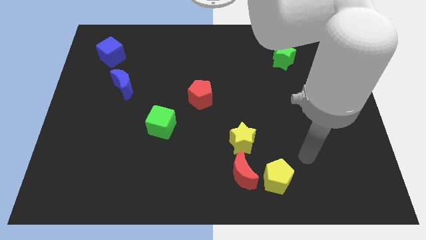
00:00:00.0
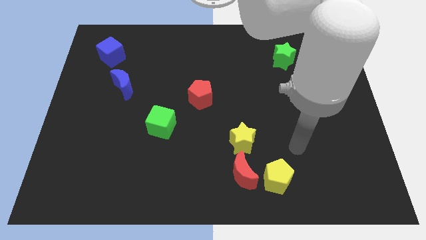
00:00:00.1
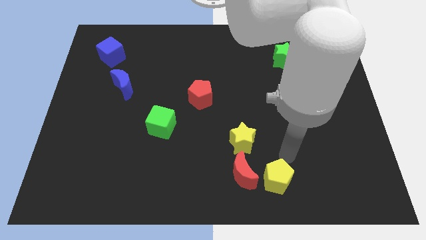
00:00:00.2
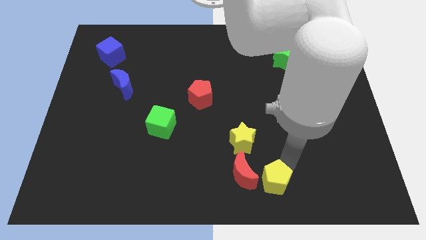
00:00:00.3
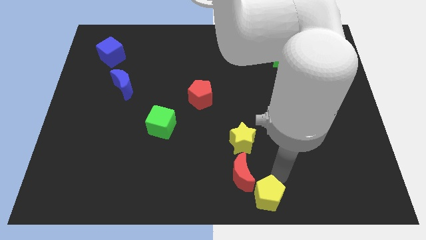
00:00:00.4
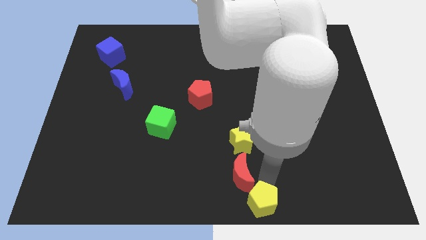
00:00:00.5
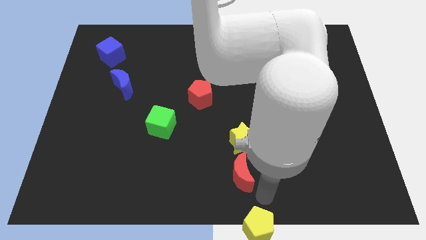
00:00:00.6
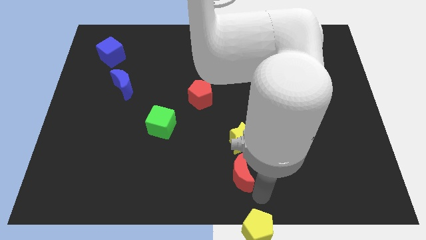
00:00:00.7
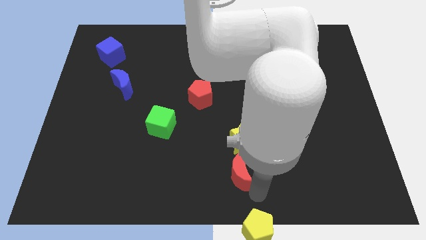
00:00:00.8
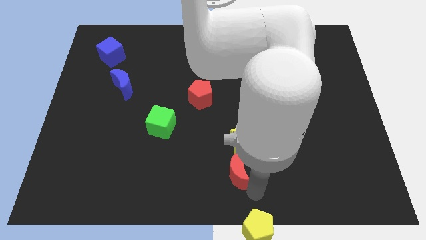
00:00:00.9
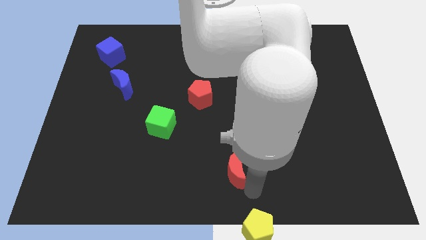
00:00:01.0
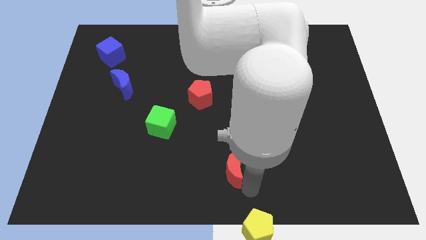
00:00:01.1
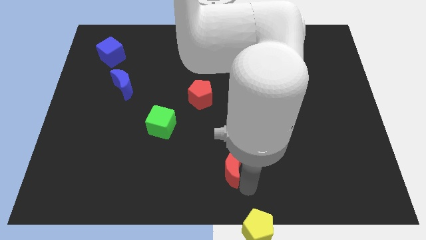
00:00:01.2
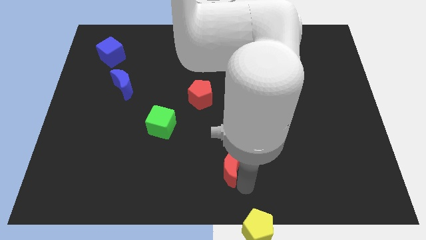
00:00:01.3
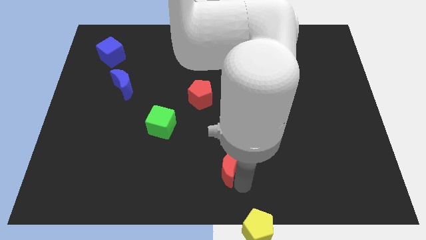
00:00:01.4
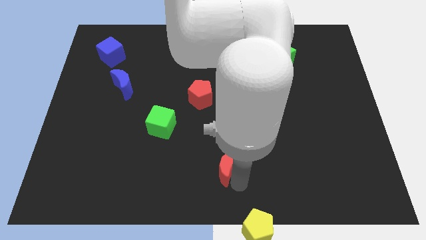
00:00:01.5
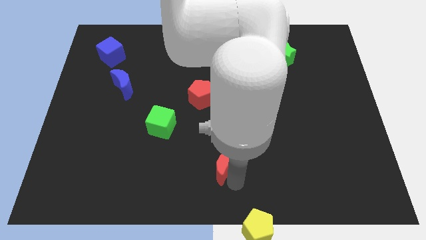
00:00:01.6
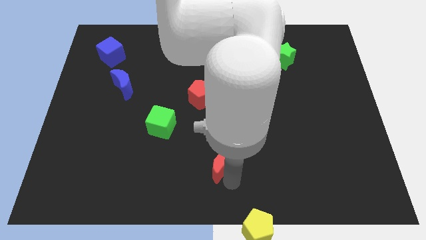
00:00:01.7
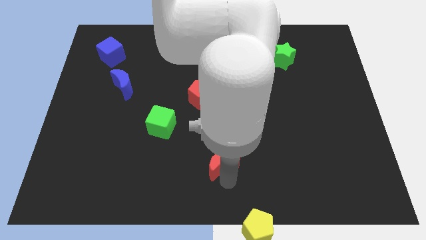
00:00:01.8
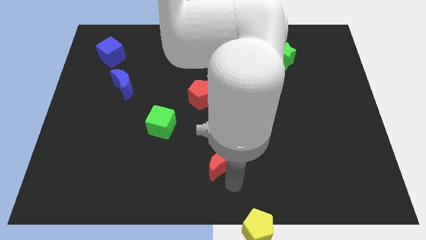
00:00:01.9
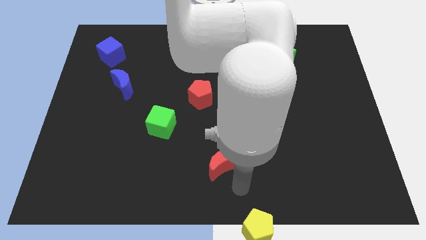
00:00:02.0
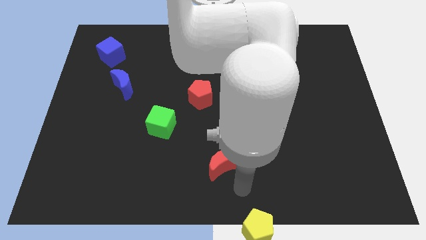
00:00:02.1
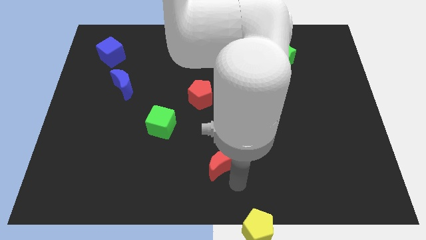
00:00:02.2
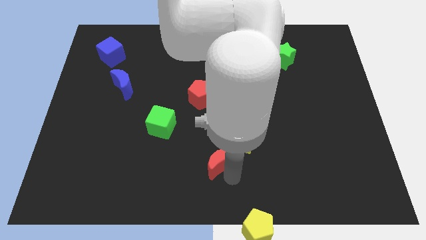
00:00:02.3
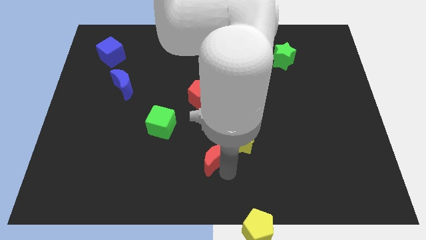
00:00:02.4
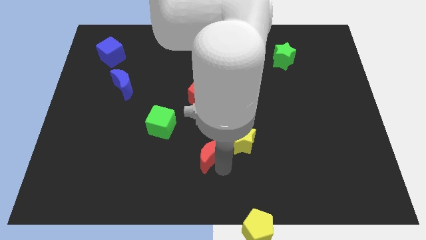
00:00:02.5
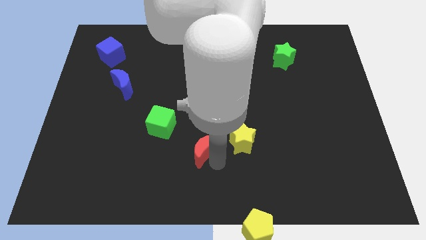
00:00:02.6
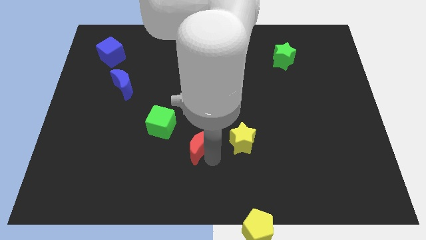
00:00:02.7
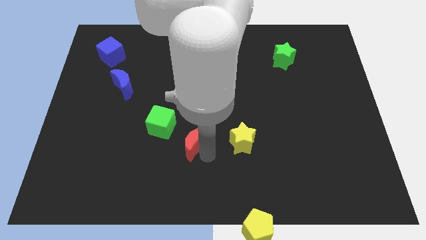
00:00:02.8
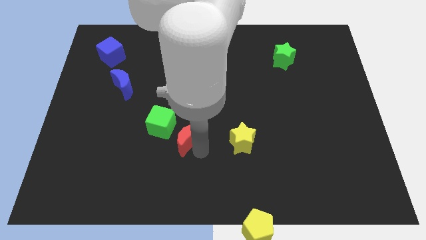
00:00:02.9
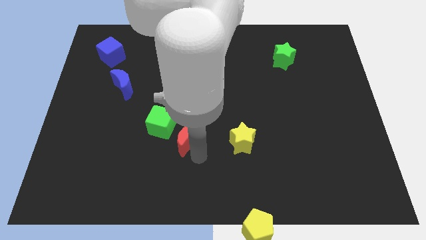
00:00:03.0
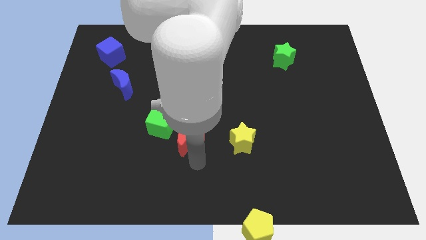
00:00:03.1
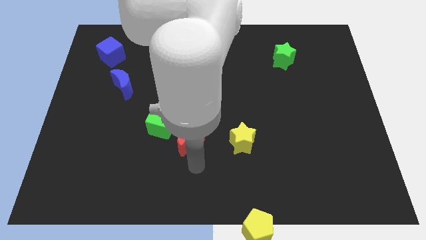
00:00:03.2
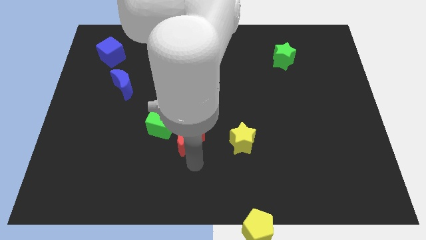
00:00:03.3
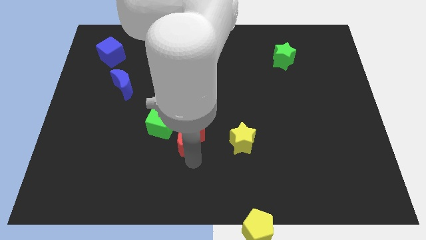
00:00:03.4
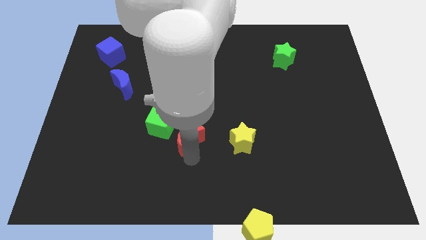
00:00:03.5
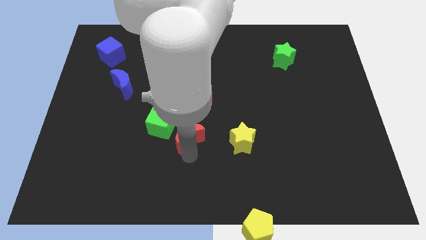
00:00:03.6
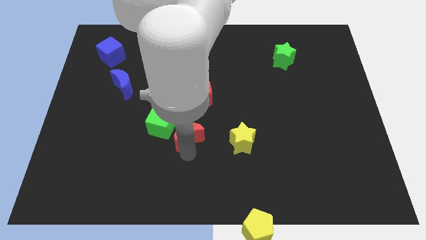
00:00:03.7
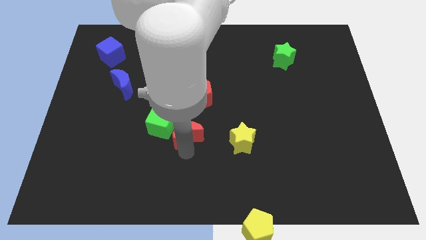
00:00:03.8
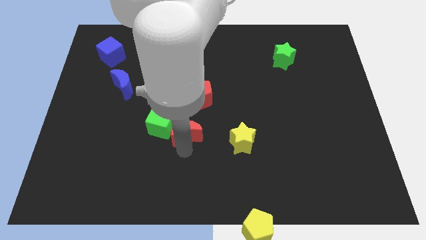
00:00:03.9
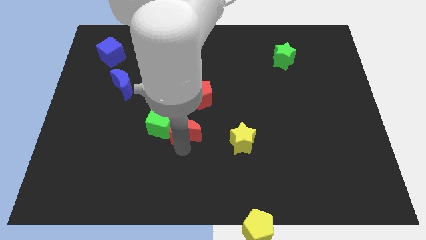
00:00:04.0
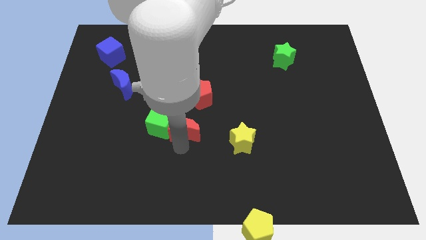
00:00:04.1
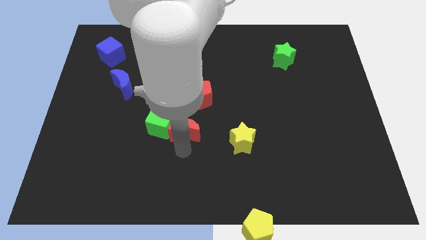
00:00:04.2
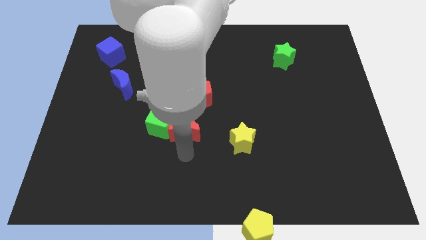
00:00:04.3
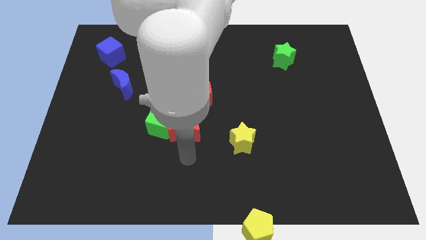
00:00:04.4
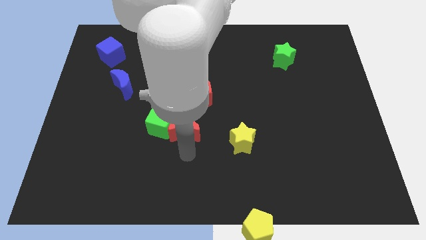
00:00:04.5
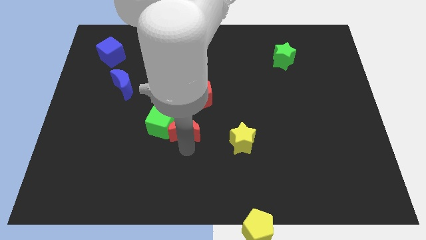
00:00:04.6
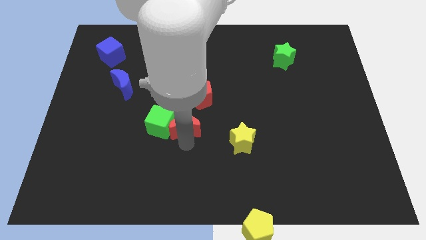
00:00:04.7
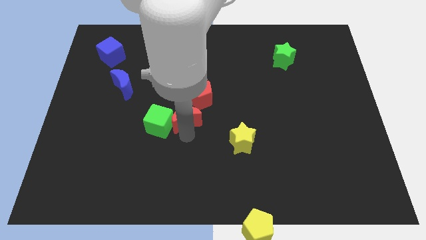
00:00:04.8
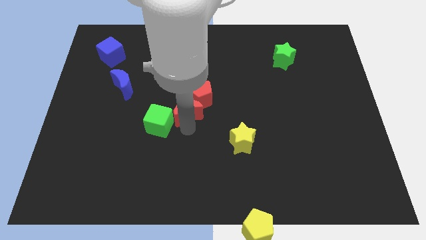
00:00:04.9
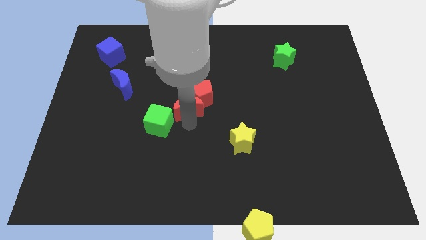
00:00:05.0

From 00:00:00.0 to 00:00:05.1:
slide the red moon upwards and then left

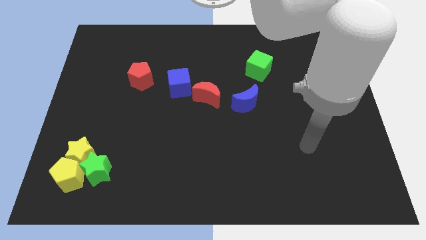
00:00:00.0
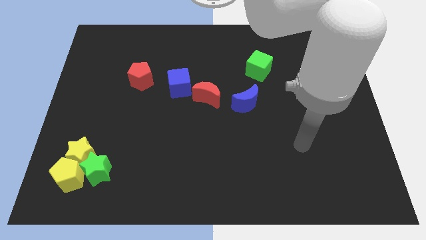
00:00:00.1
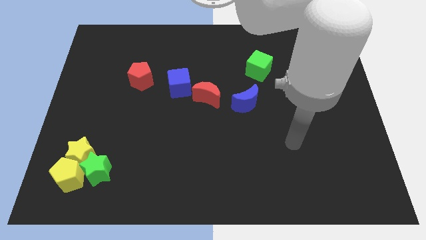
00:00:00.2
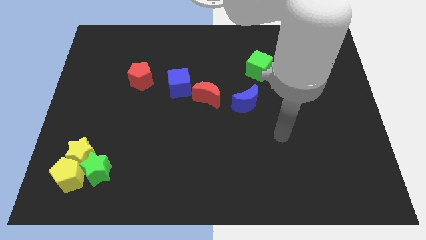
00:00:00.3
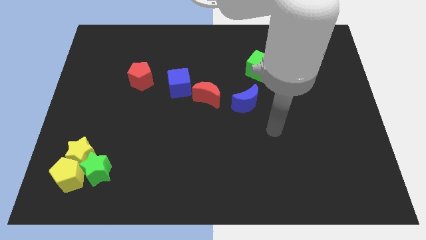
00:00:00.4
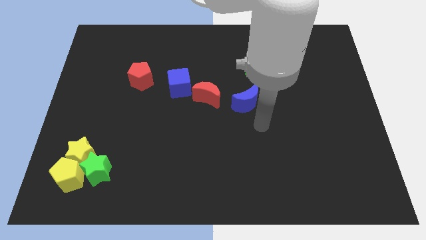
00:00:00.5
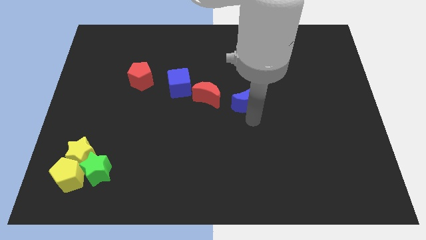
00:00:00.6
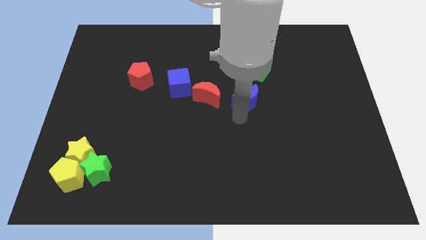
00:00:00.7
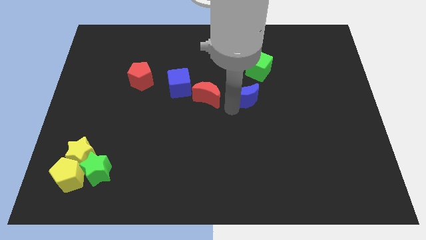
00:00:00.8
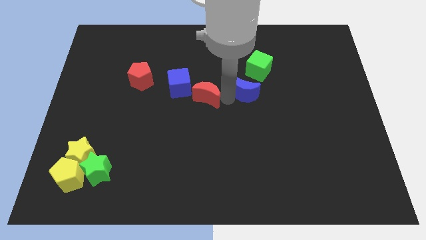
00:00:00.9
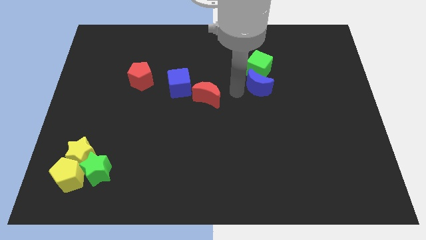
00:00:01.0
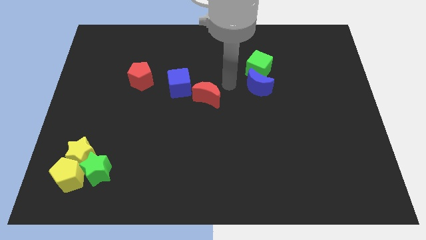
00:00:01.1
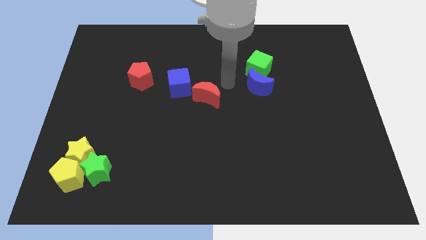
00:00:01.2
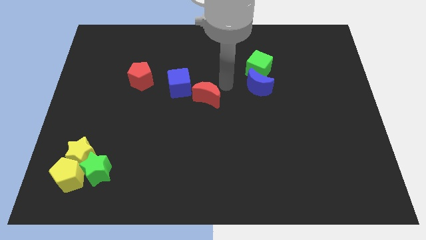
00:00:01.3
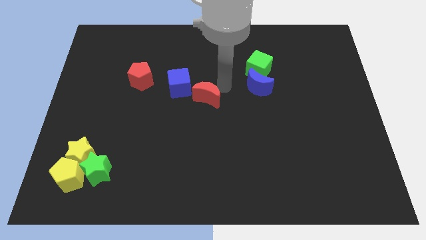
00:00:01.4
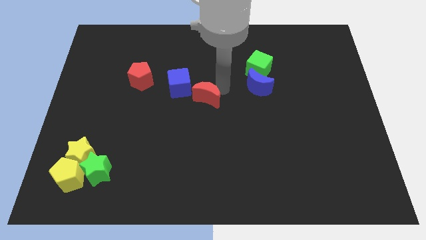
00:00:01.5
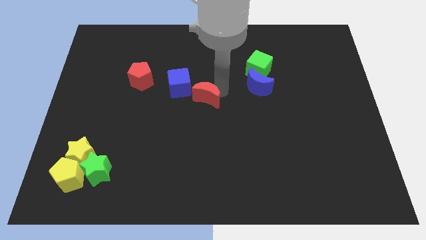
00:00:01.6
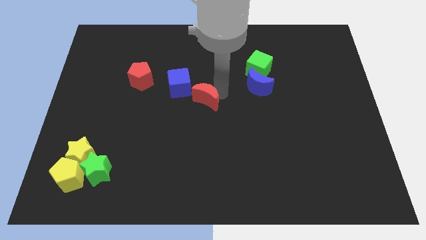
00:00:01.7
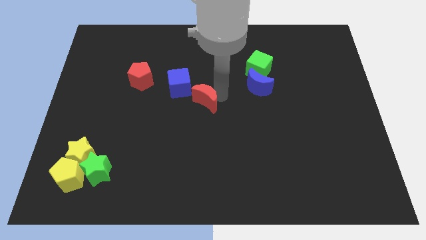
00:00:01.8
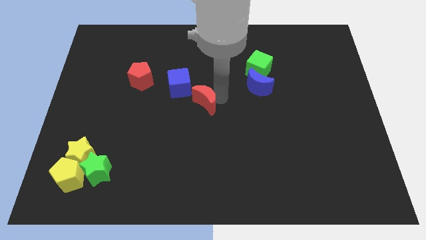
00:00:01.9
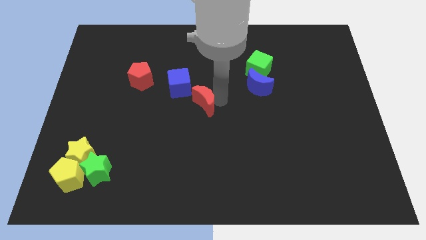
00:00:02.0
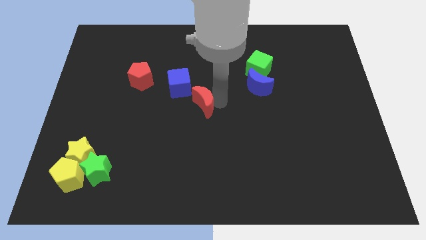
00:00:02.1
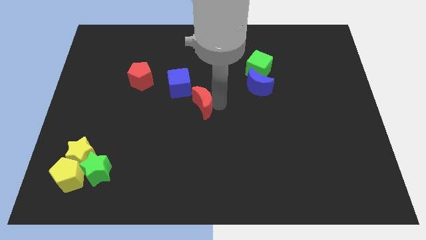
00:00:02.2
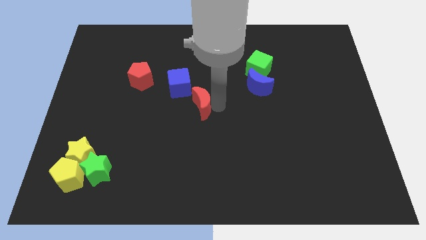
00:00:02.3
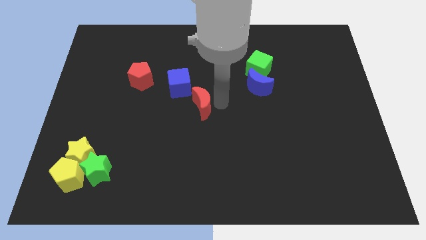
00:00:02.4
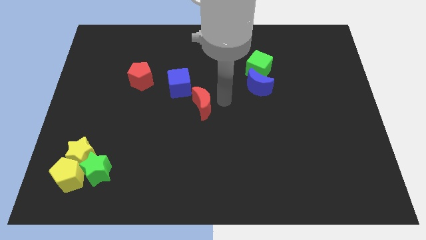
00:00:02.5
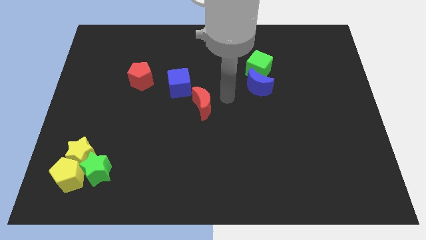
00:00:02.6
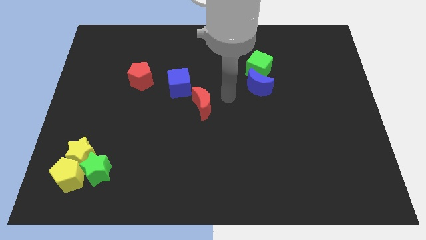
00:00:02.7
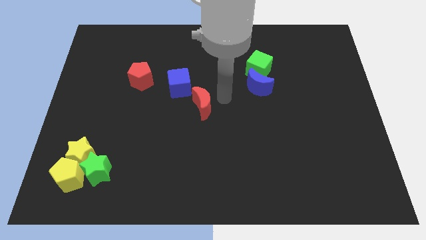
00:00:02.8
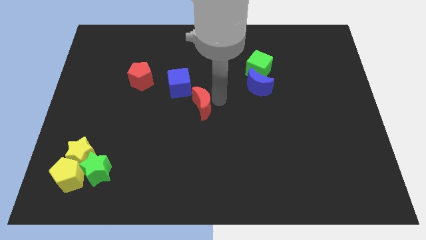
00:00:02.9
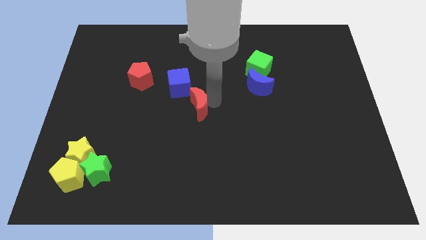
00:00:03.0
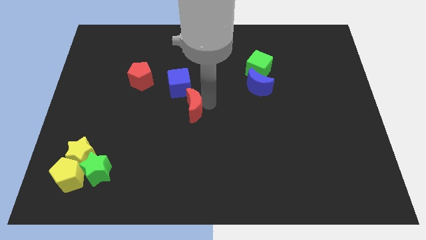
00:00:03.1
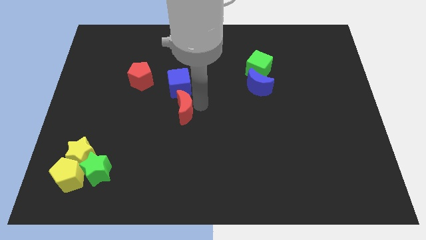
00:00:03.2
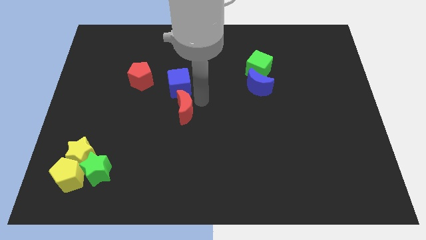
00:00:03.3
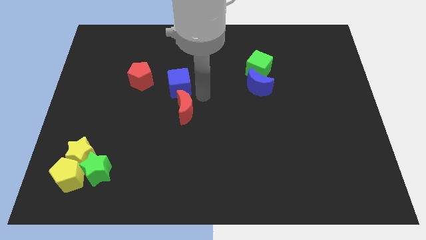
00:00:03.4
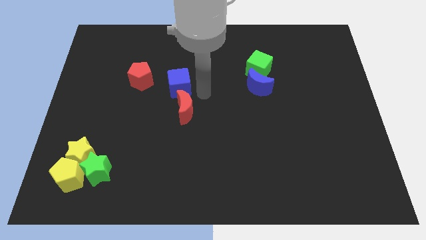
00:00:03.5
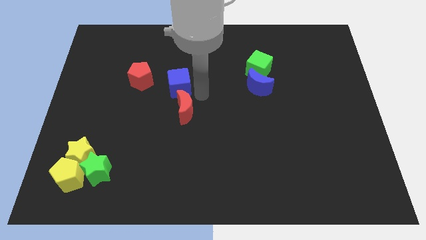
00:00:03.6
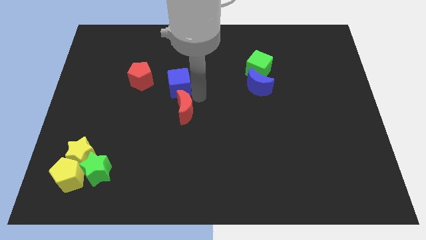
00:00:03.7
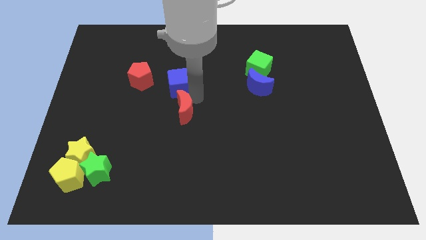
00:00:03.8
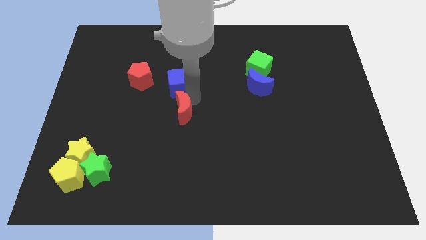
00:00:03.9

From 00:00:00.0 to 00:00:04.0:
move the red moon somewhat down and to the left diagonally
